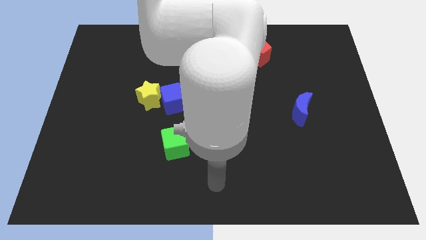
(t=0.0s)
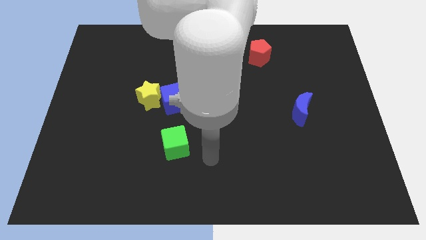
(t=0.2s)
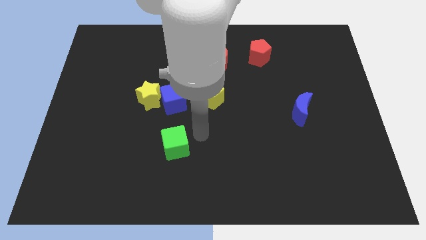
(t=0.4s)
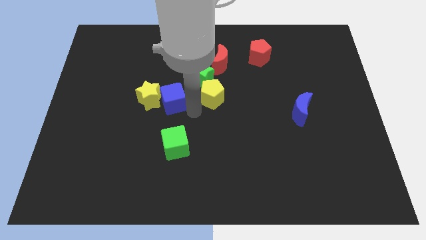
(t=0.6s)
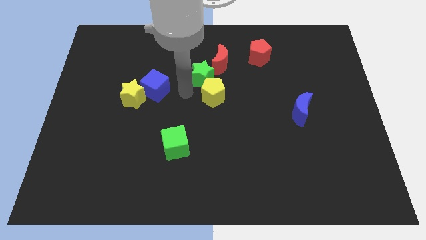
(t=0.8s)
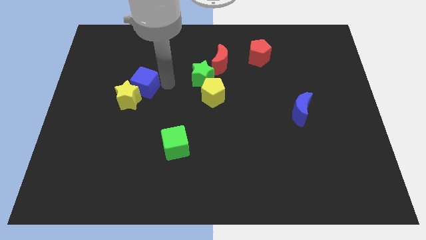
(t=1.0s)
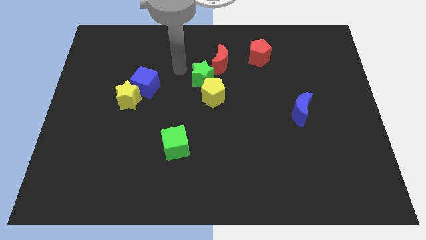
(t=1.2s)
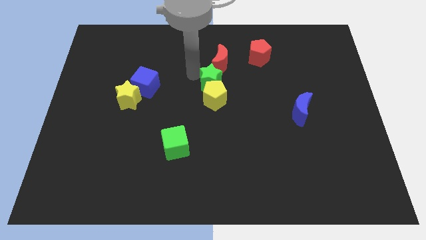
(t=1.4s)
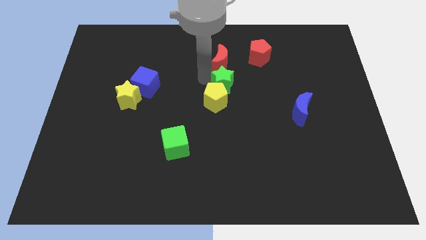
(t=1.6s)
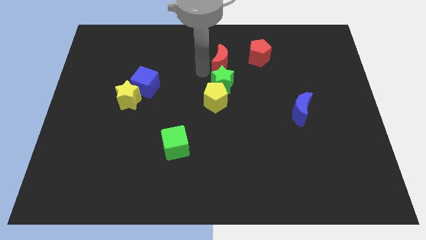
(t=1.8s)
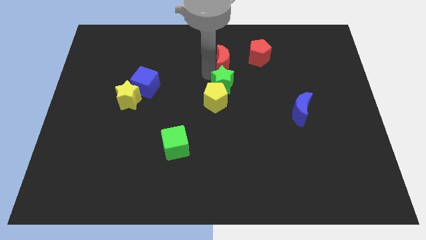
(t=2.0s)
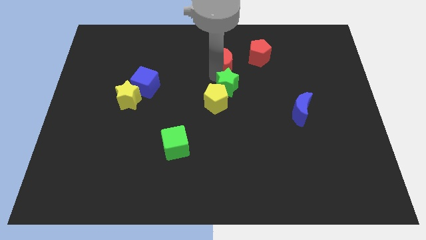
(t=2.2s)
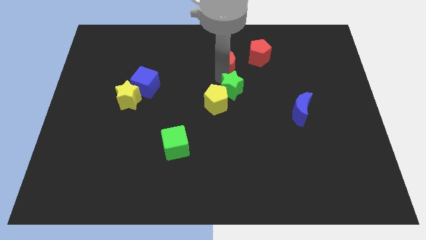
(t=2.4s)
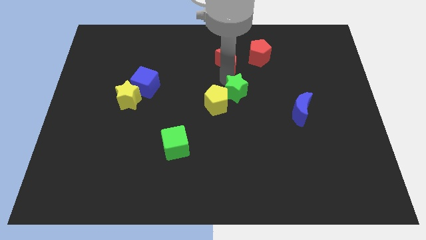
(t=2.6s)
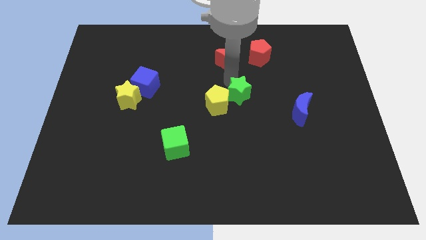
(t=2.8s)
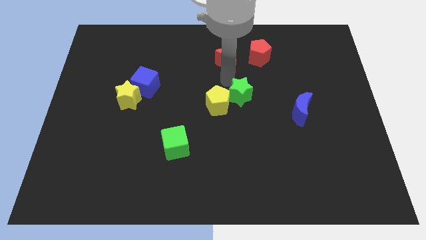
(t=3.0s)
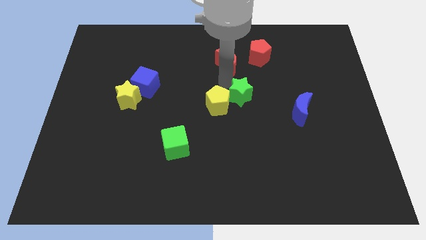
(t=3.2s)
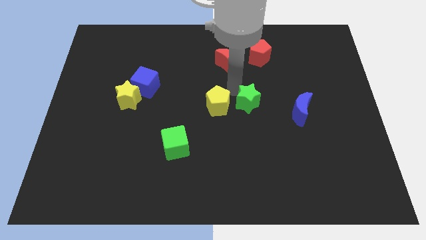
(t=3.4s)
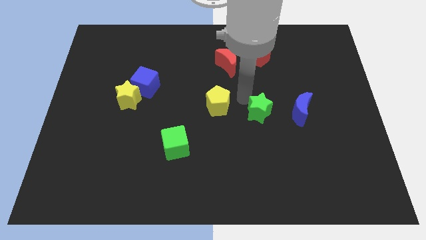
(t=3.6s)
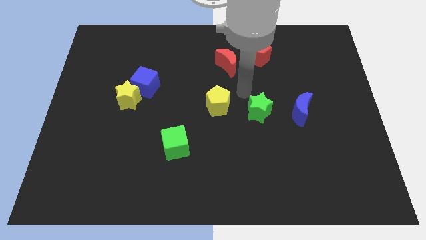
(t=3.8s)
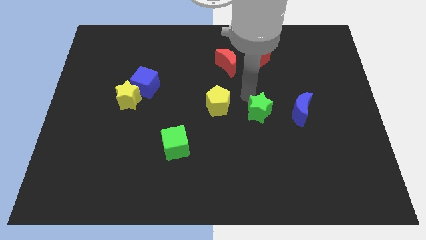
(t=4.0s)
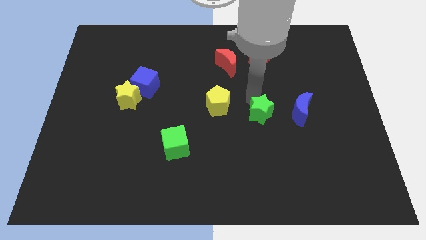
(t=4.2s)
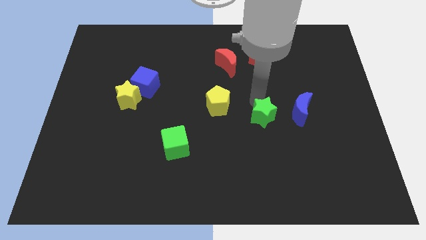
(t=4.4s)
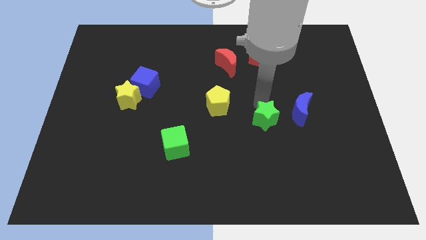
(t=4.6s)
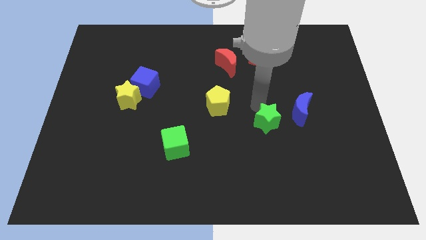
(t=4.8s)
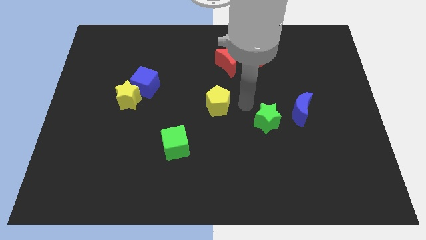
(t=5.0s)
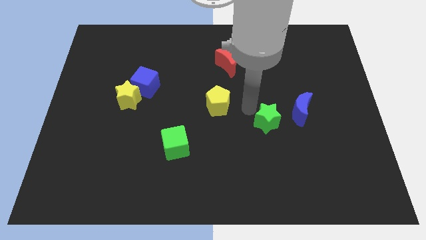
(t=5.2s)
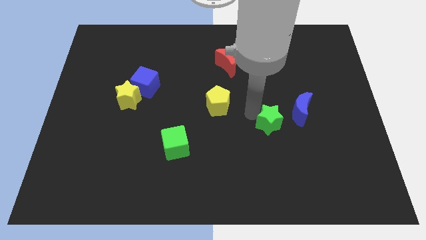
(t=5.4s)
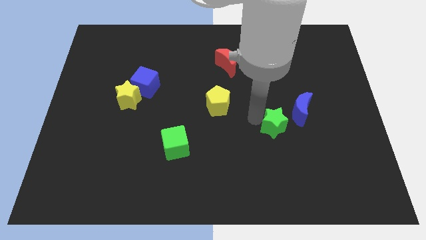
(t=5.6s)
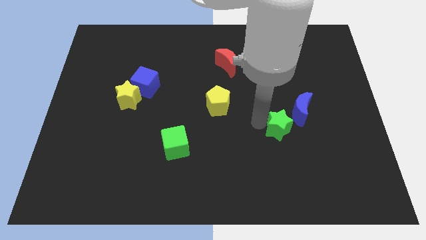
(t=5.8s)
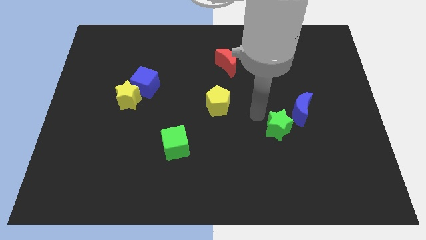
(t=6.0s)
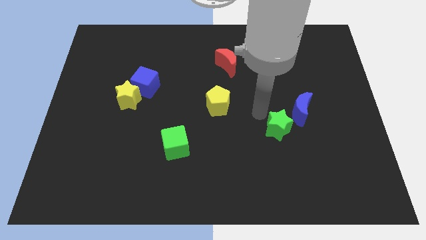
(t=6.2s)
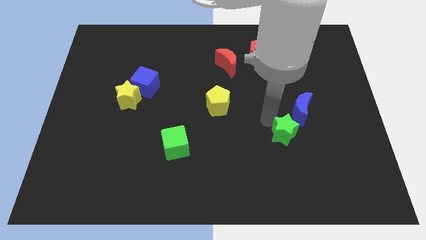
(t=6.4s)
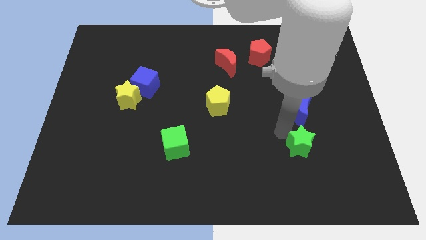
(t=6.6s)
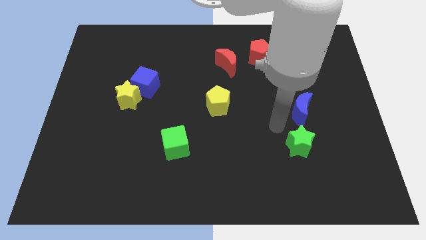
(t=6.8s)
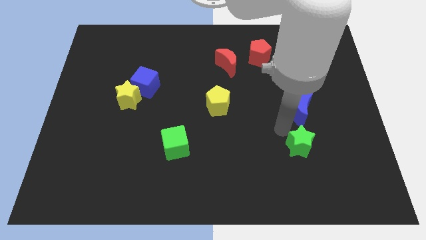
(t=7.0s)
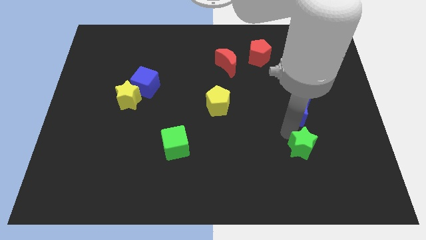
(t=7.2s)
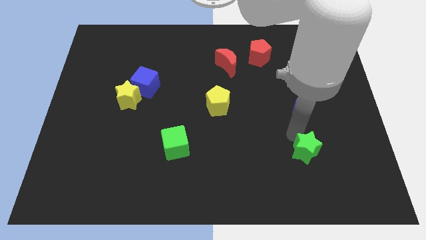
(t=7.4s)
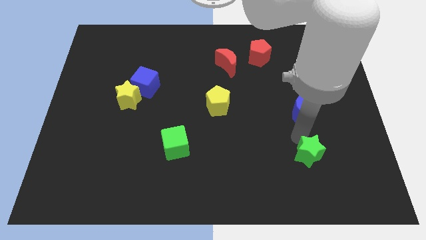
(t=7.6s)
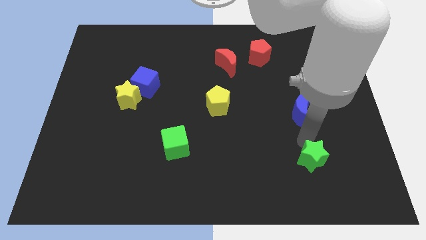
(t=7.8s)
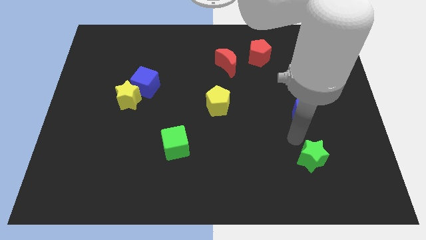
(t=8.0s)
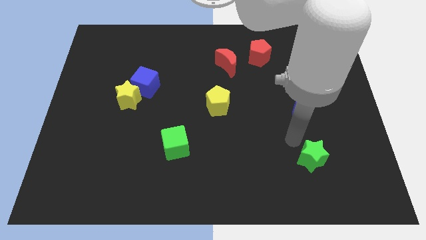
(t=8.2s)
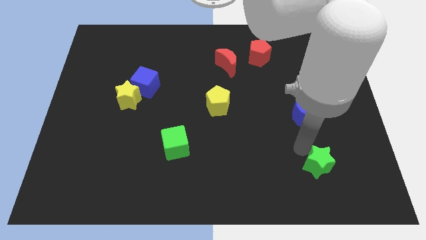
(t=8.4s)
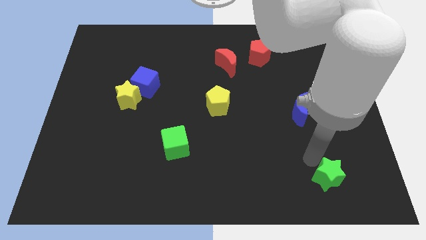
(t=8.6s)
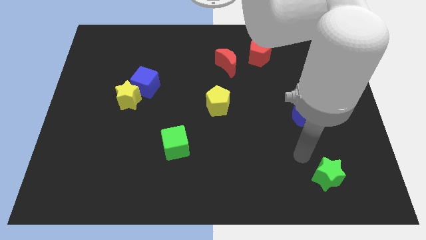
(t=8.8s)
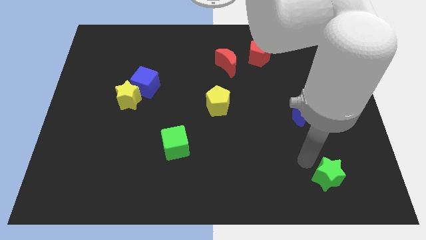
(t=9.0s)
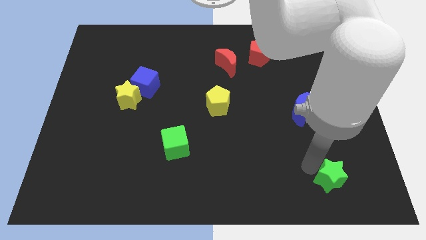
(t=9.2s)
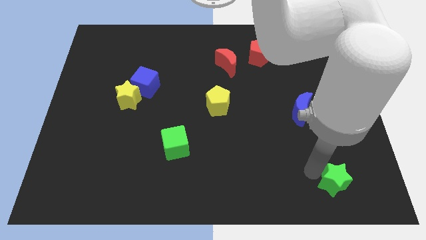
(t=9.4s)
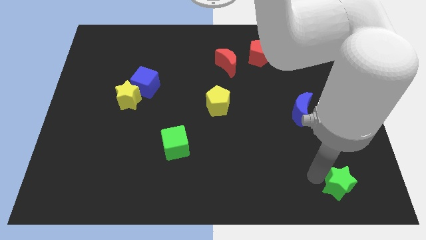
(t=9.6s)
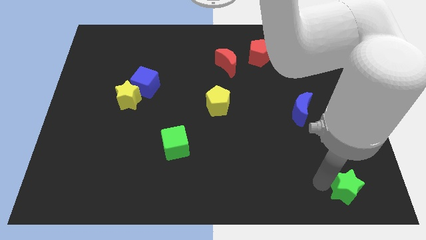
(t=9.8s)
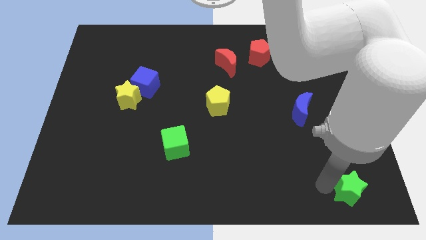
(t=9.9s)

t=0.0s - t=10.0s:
slide the green star to the bottom right of the board

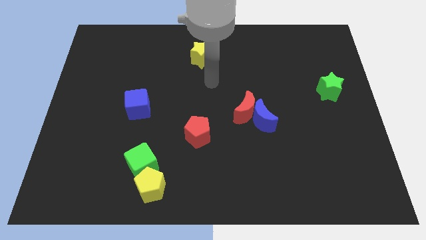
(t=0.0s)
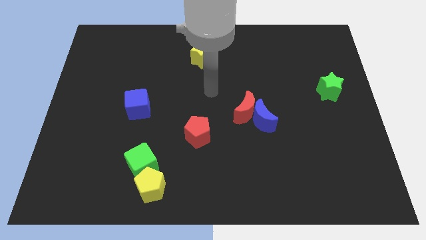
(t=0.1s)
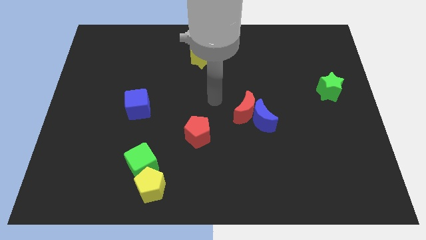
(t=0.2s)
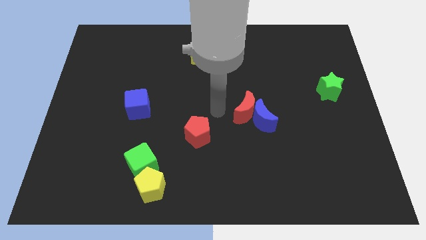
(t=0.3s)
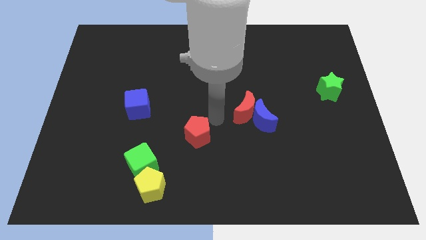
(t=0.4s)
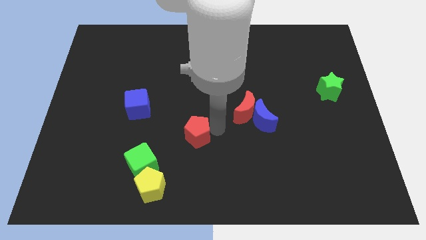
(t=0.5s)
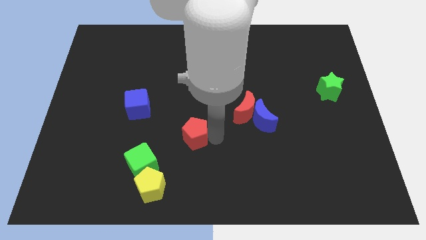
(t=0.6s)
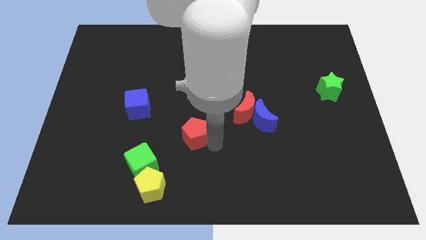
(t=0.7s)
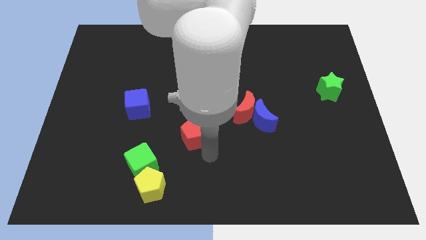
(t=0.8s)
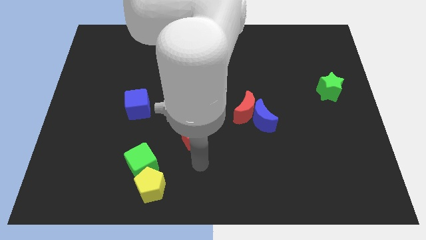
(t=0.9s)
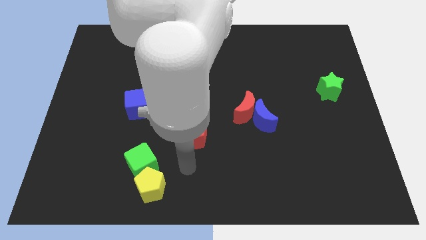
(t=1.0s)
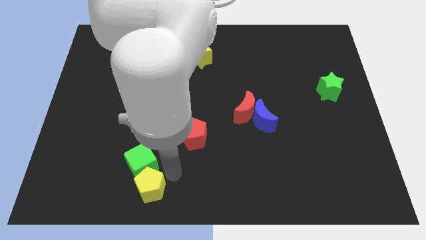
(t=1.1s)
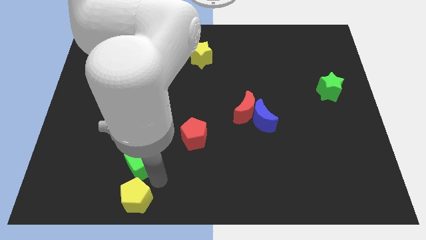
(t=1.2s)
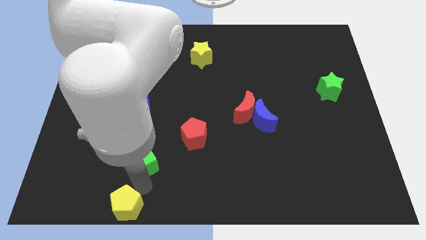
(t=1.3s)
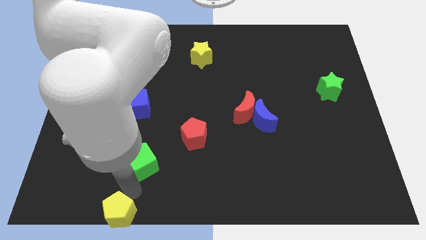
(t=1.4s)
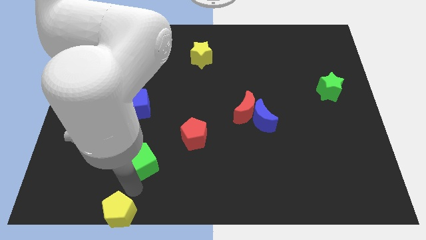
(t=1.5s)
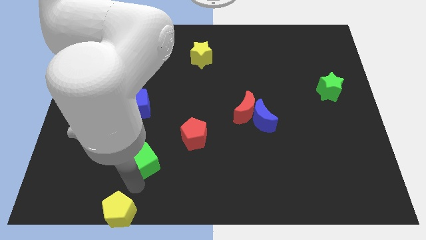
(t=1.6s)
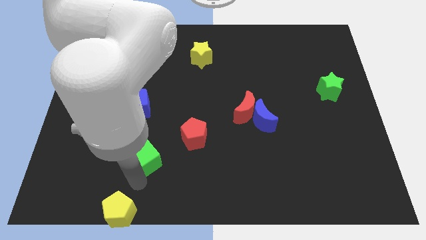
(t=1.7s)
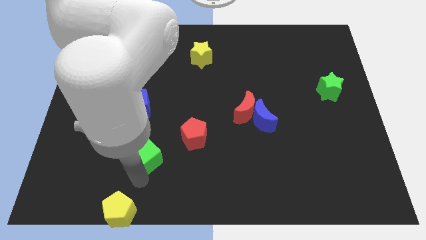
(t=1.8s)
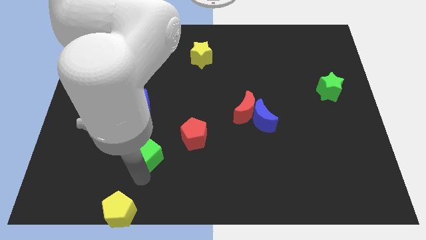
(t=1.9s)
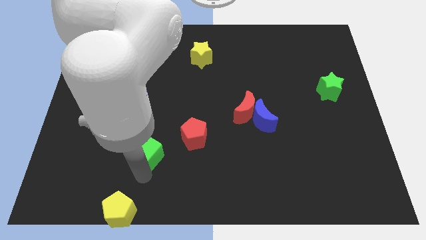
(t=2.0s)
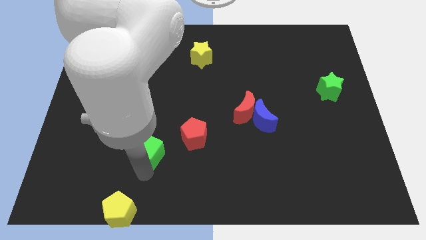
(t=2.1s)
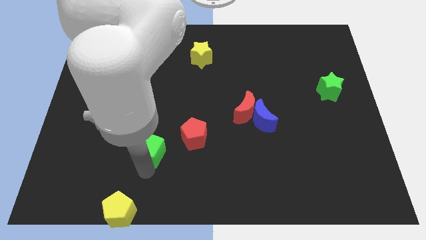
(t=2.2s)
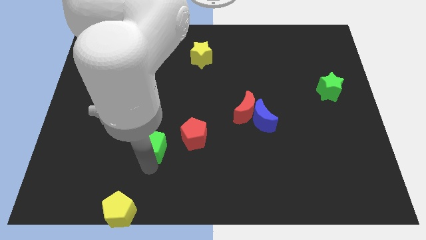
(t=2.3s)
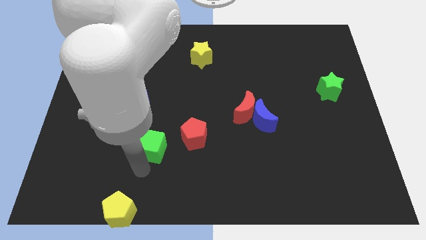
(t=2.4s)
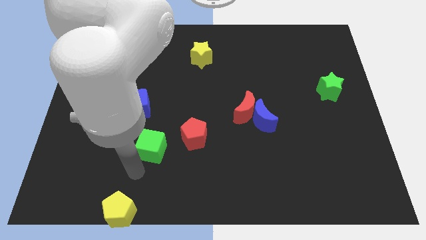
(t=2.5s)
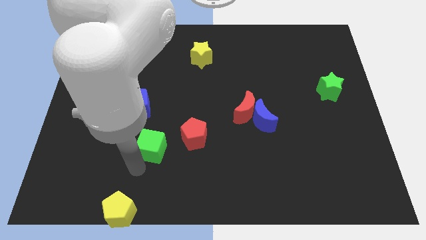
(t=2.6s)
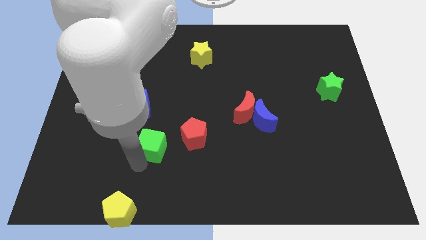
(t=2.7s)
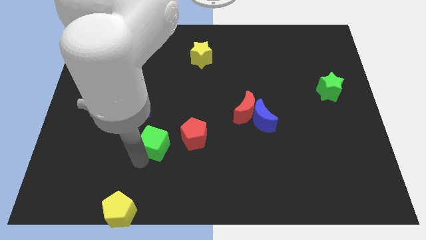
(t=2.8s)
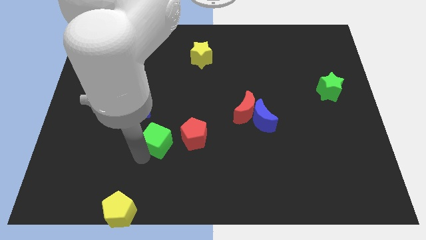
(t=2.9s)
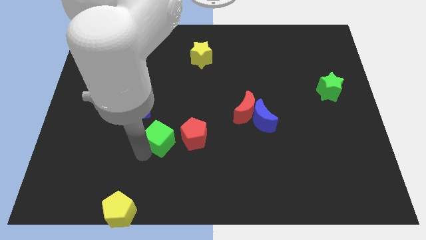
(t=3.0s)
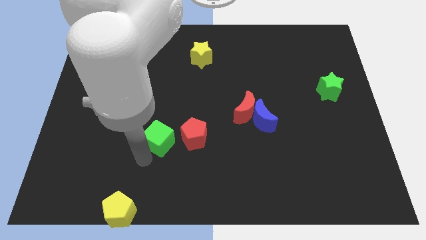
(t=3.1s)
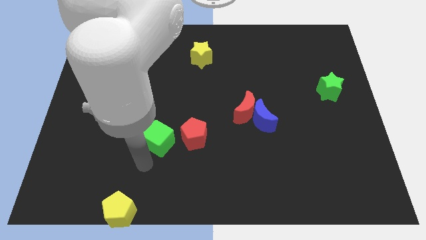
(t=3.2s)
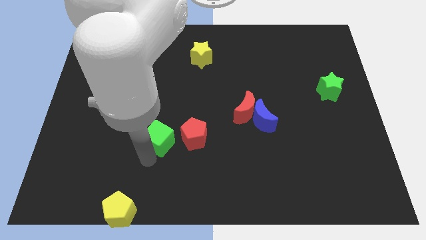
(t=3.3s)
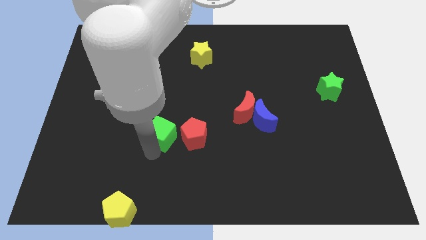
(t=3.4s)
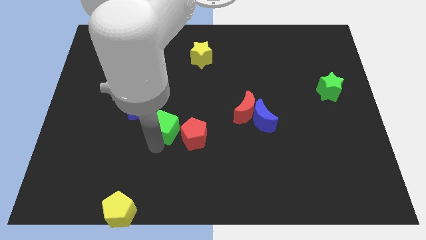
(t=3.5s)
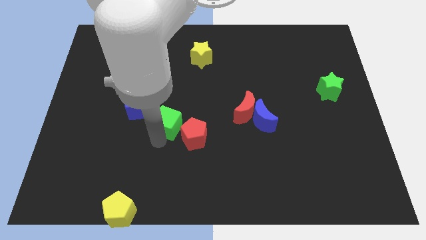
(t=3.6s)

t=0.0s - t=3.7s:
move the green cube to the center of the board
